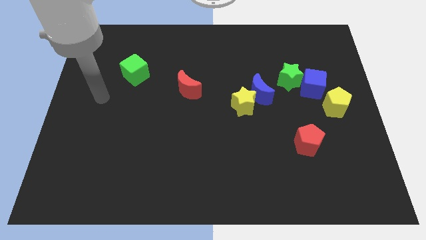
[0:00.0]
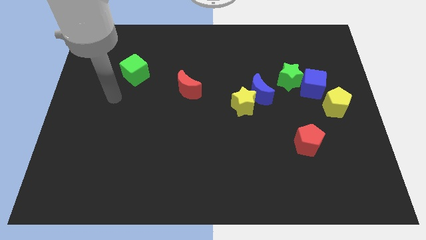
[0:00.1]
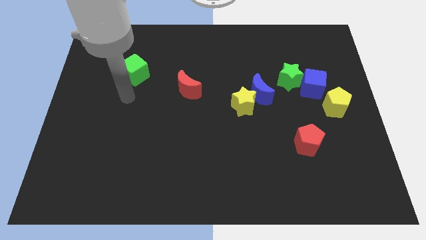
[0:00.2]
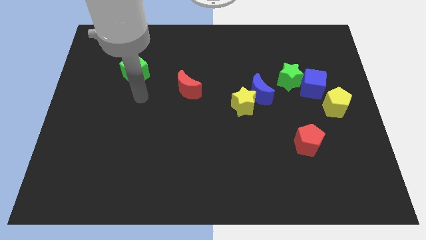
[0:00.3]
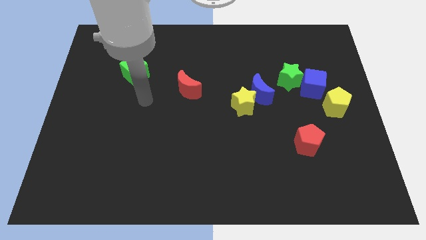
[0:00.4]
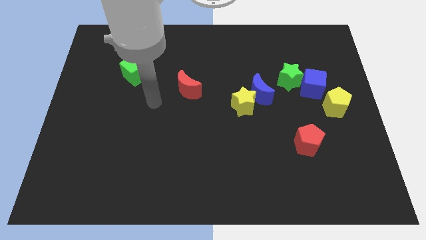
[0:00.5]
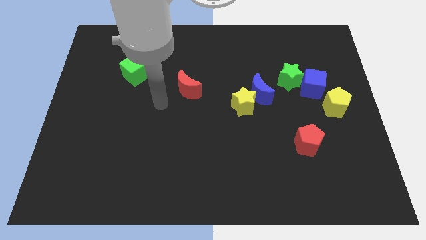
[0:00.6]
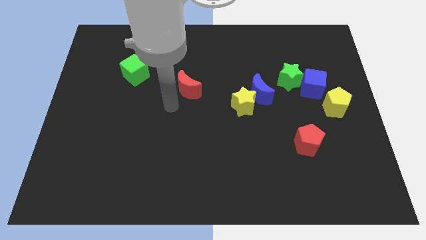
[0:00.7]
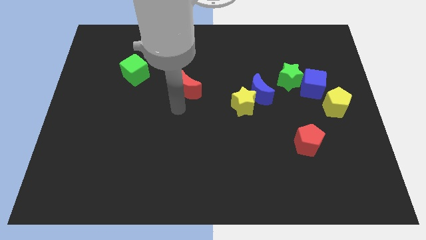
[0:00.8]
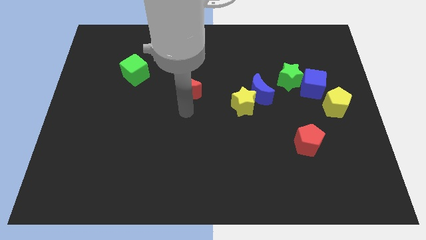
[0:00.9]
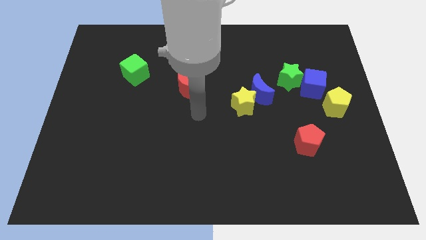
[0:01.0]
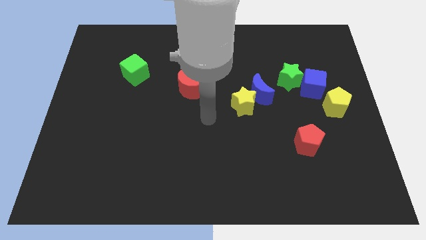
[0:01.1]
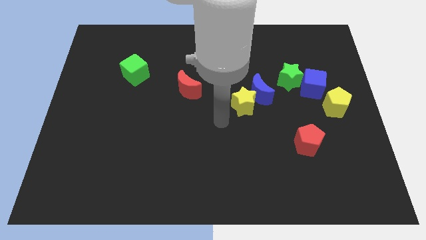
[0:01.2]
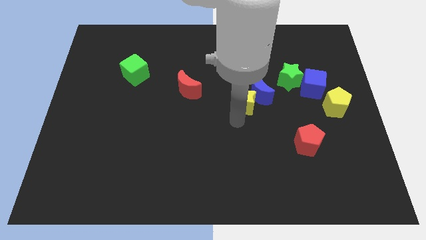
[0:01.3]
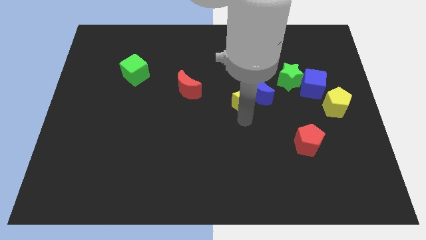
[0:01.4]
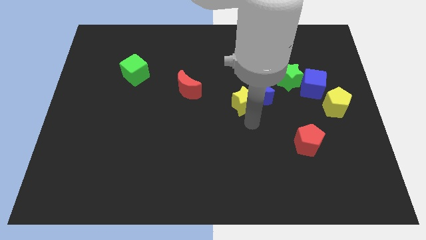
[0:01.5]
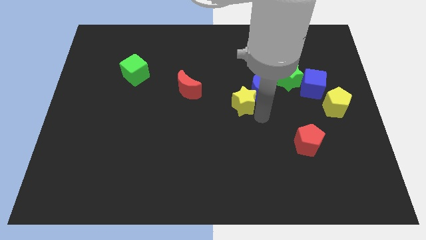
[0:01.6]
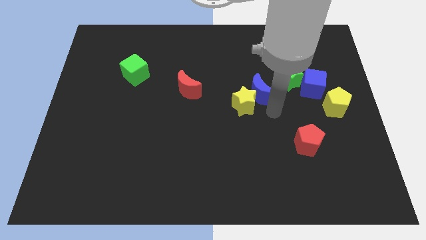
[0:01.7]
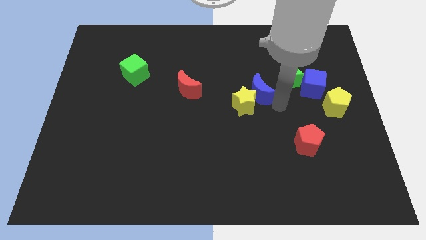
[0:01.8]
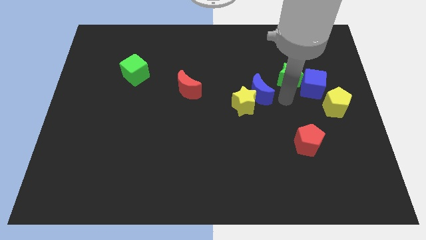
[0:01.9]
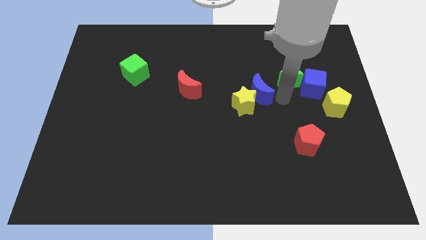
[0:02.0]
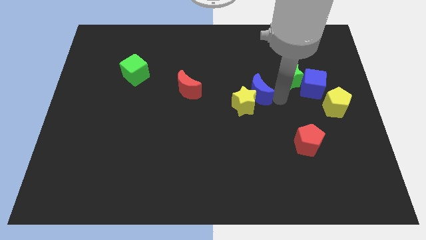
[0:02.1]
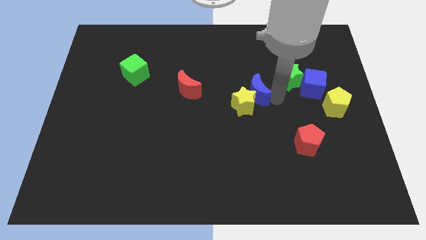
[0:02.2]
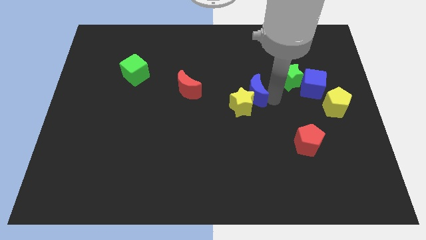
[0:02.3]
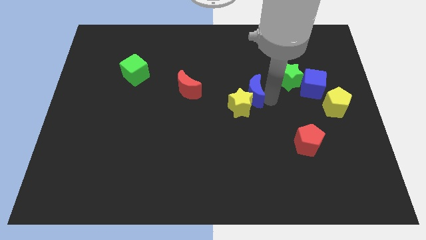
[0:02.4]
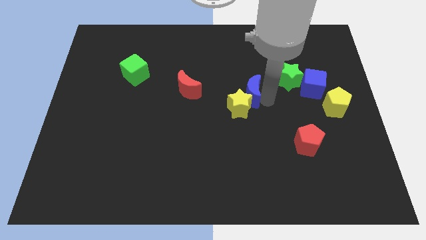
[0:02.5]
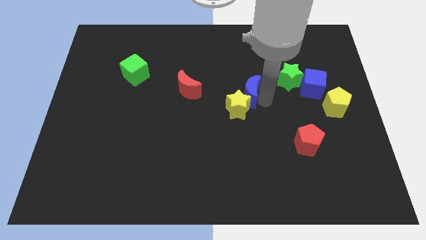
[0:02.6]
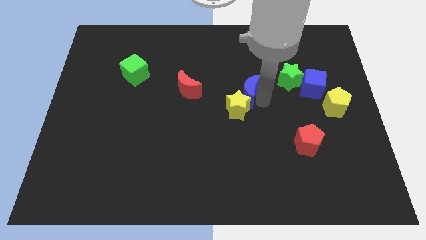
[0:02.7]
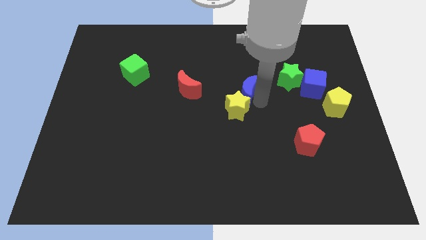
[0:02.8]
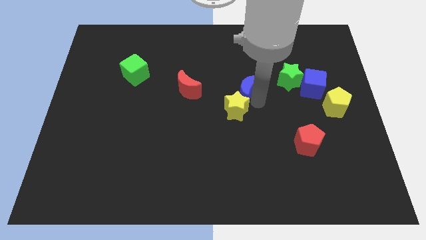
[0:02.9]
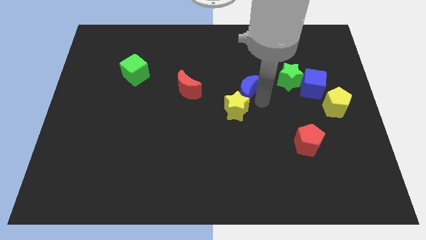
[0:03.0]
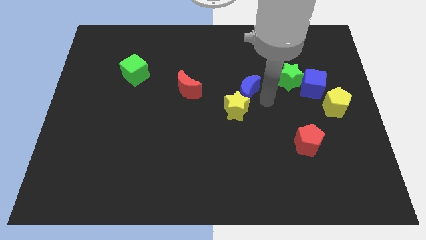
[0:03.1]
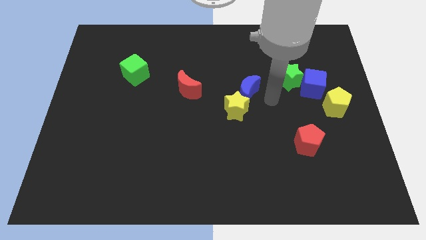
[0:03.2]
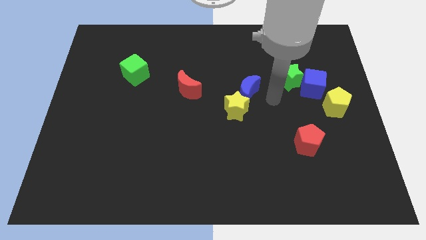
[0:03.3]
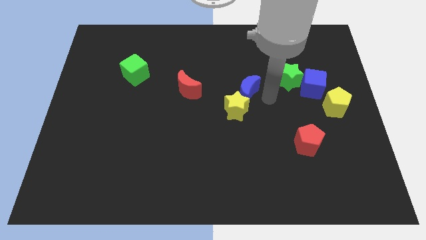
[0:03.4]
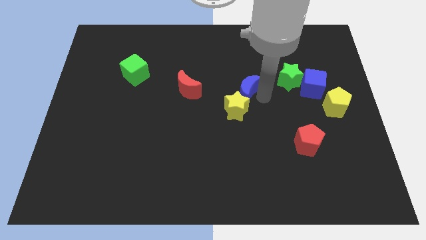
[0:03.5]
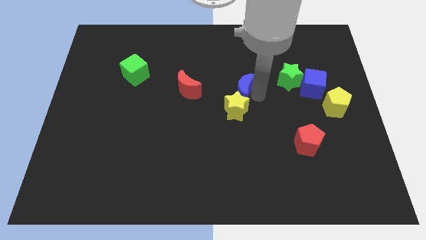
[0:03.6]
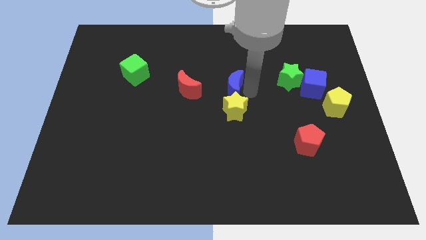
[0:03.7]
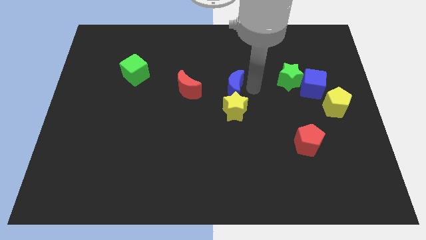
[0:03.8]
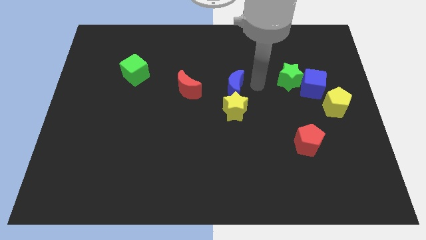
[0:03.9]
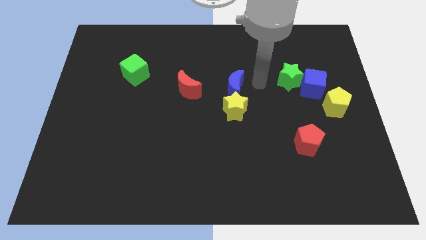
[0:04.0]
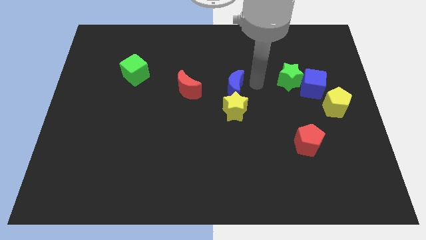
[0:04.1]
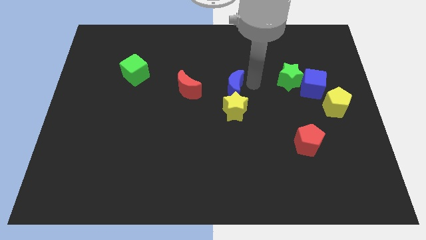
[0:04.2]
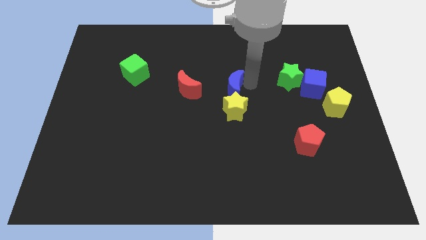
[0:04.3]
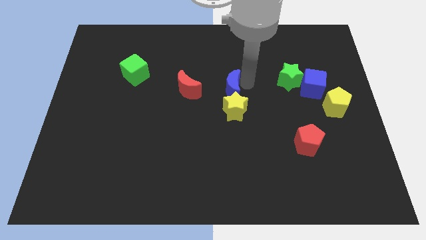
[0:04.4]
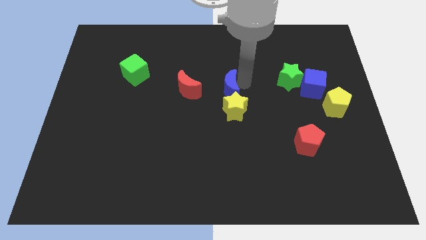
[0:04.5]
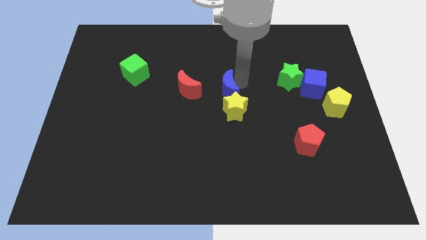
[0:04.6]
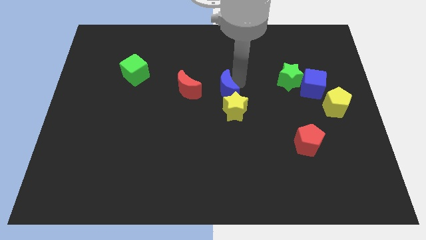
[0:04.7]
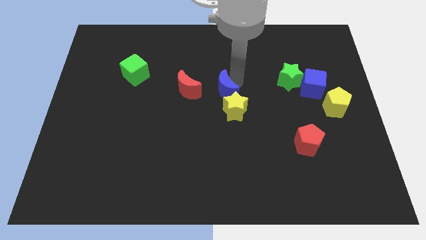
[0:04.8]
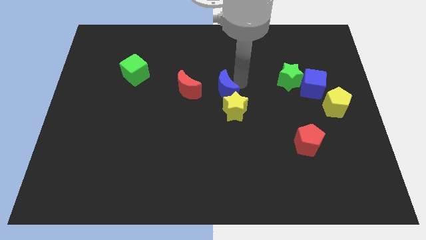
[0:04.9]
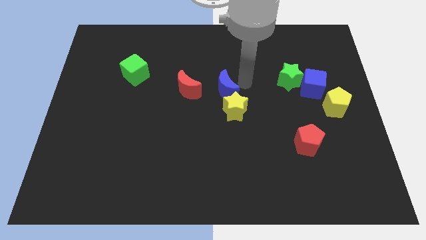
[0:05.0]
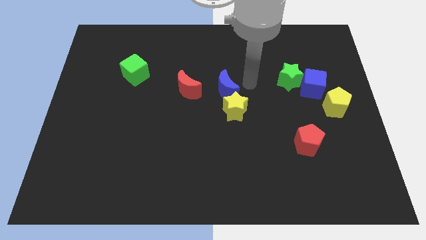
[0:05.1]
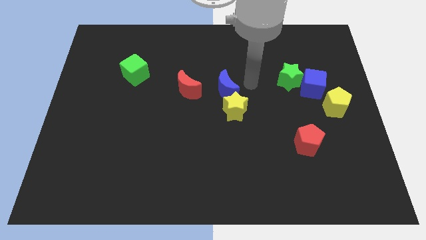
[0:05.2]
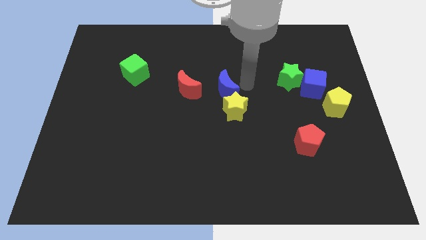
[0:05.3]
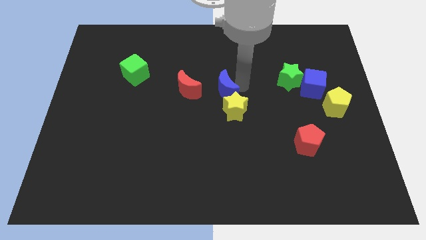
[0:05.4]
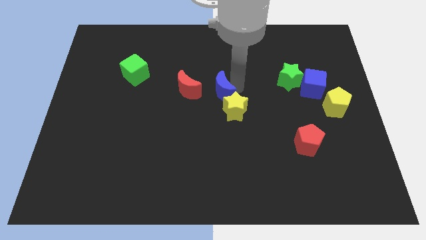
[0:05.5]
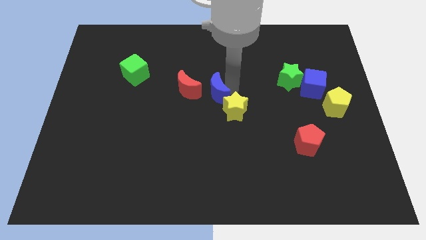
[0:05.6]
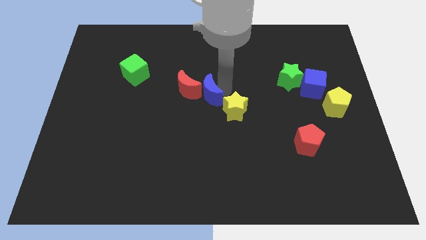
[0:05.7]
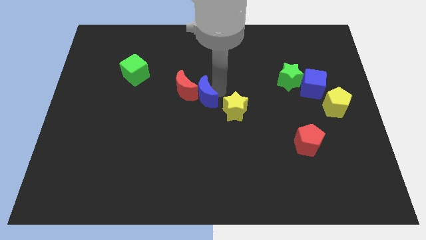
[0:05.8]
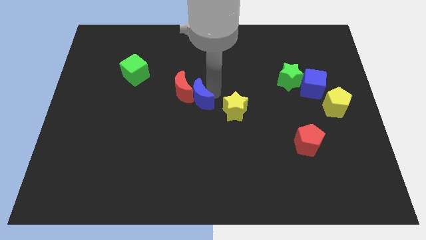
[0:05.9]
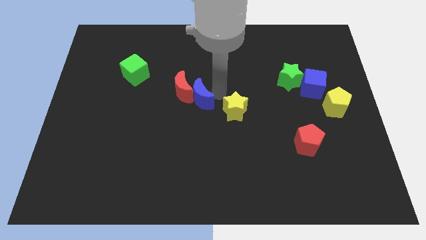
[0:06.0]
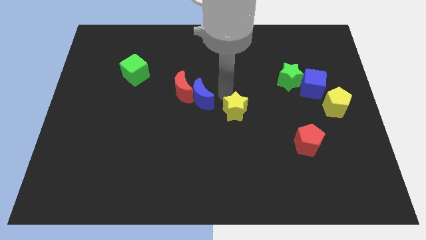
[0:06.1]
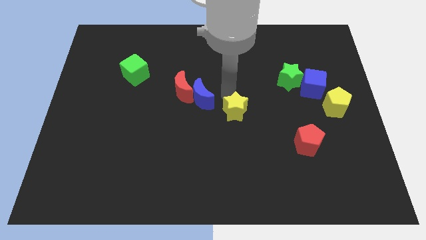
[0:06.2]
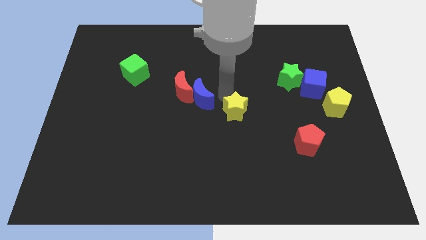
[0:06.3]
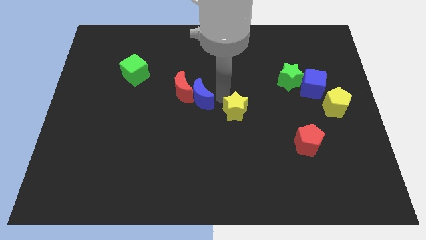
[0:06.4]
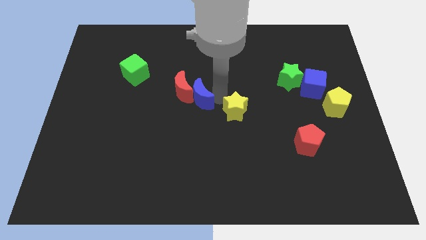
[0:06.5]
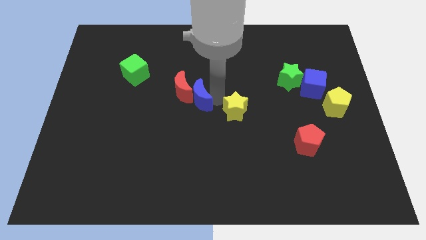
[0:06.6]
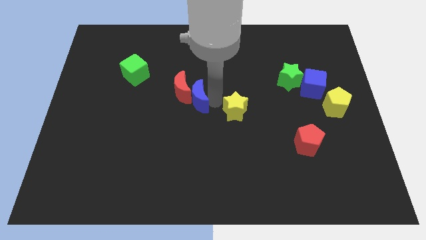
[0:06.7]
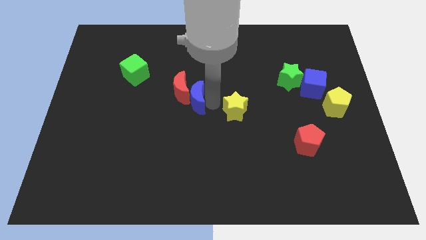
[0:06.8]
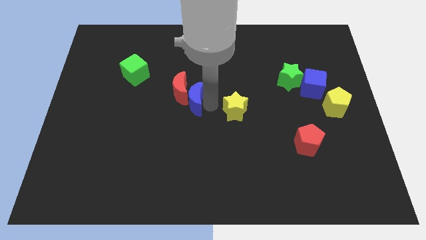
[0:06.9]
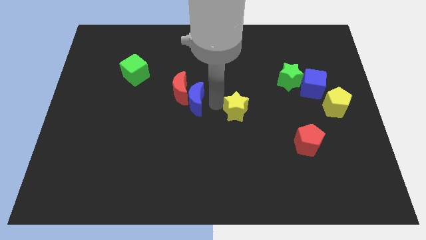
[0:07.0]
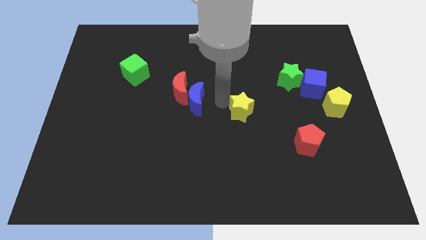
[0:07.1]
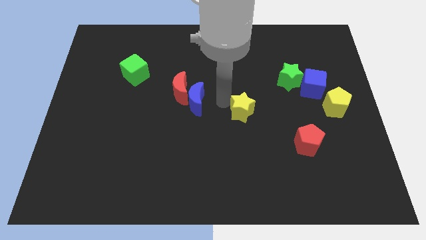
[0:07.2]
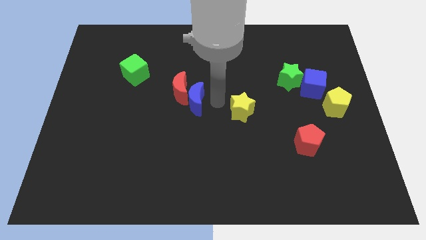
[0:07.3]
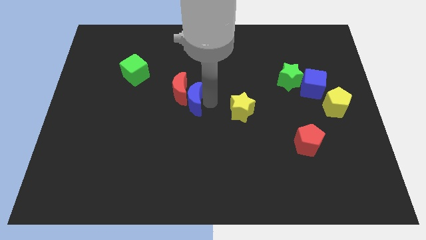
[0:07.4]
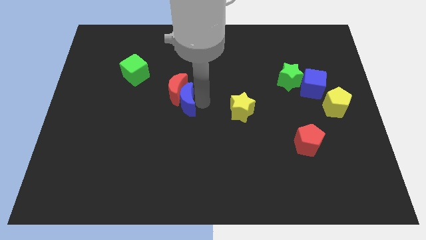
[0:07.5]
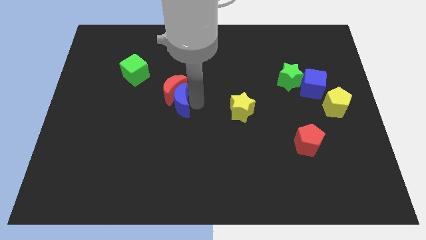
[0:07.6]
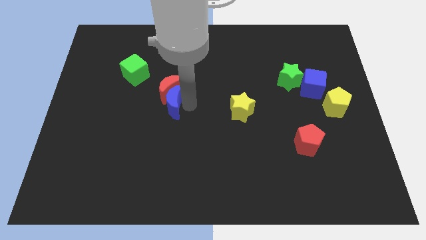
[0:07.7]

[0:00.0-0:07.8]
slide the blue moon to the left

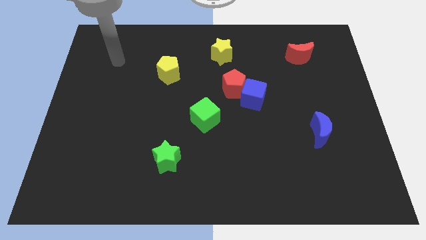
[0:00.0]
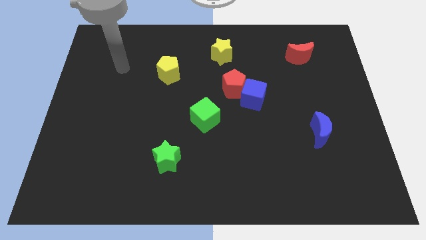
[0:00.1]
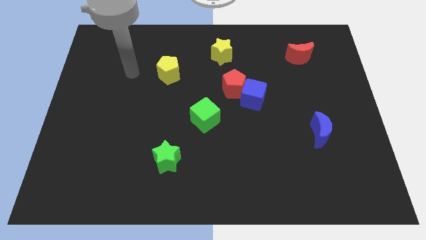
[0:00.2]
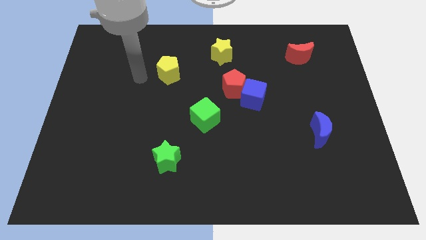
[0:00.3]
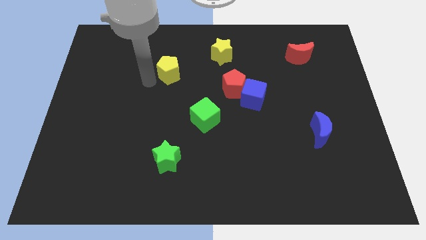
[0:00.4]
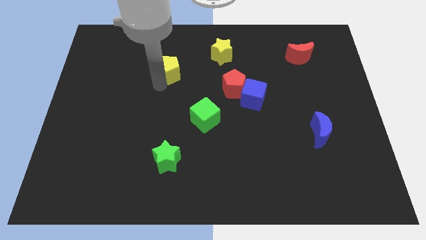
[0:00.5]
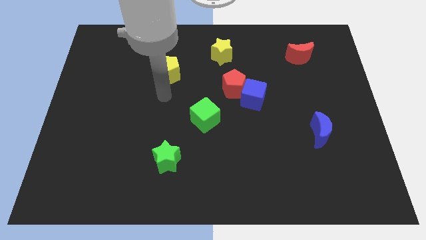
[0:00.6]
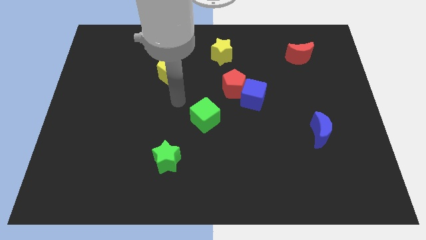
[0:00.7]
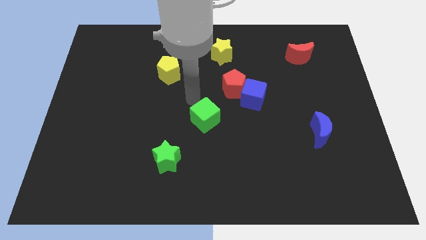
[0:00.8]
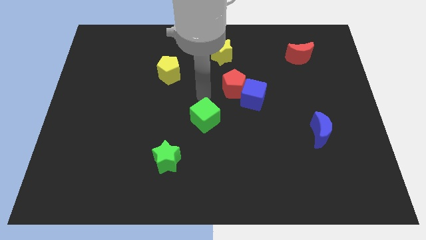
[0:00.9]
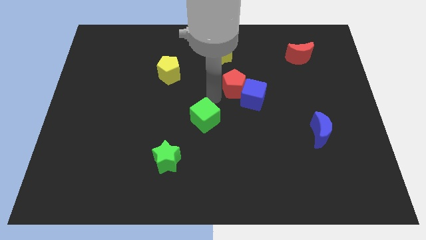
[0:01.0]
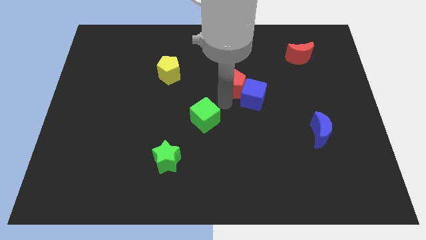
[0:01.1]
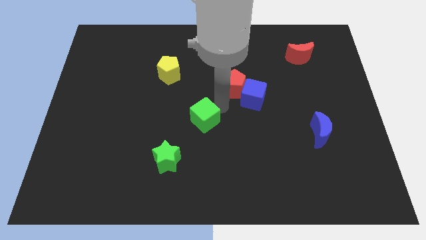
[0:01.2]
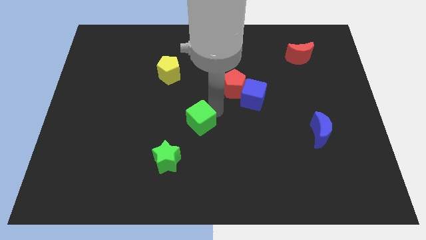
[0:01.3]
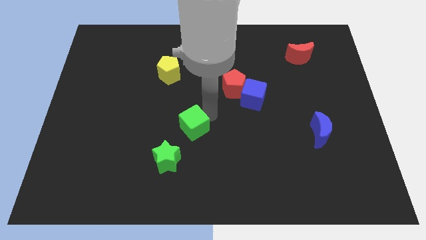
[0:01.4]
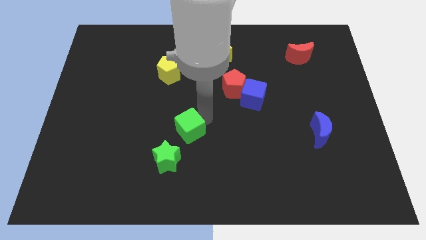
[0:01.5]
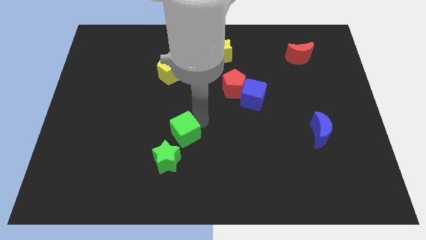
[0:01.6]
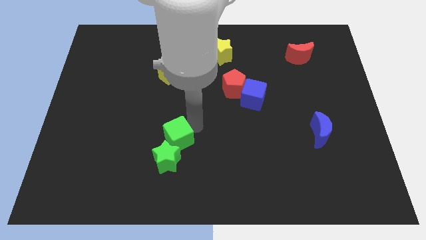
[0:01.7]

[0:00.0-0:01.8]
move the green cube a bit diagonally down and to the left
